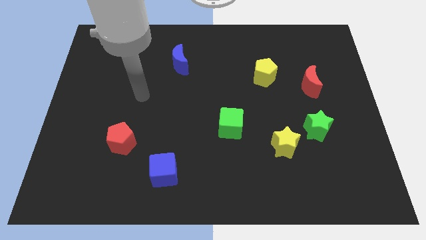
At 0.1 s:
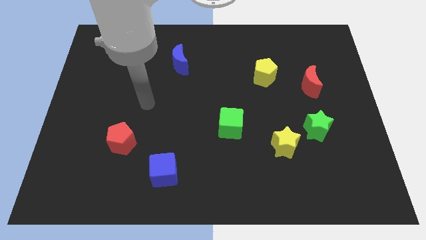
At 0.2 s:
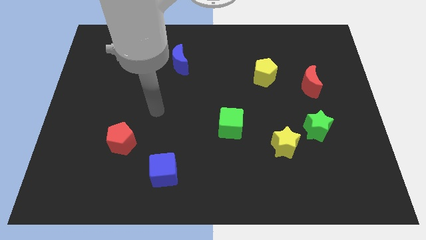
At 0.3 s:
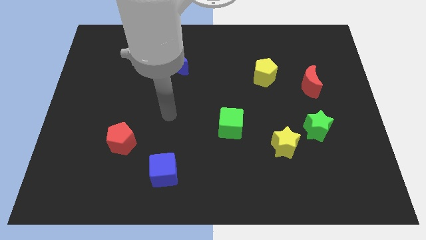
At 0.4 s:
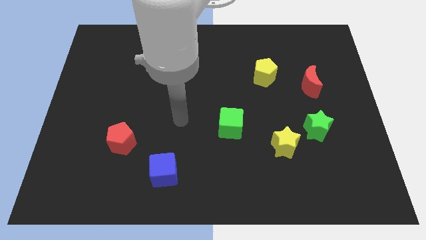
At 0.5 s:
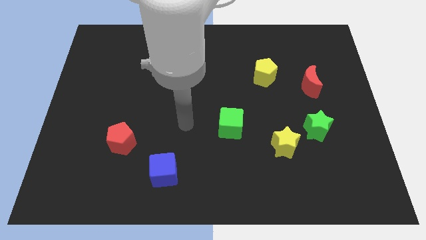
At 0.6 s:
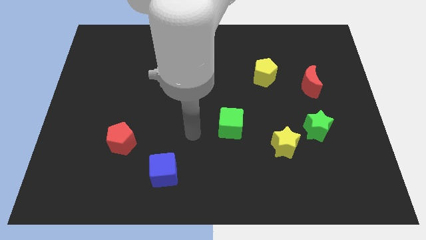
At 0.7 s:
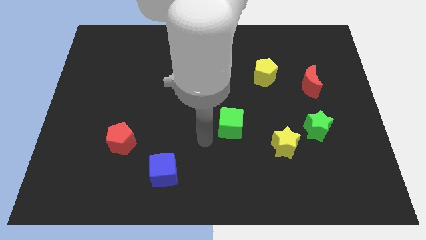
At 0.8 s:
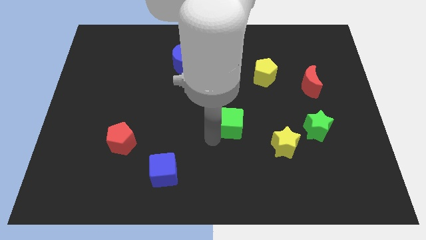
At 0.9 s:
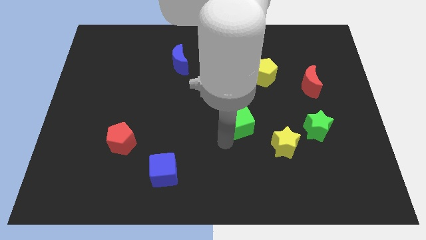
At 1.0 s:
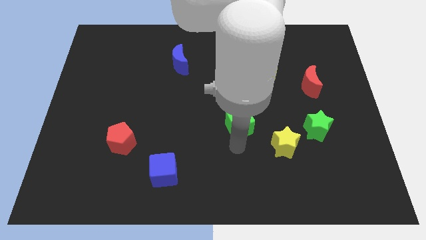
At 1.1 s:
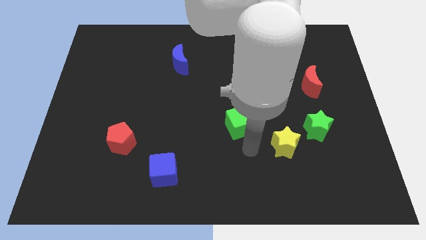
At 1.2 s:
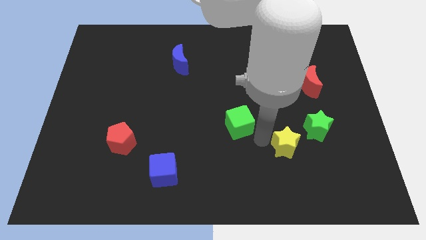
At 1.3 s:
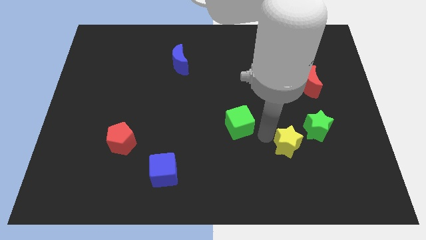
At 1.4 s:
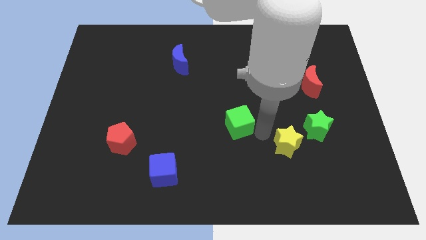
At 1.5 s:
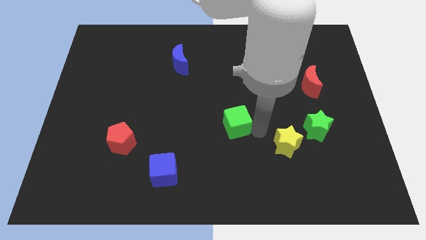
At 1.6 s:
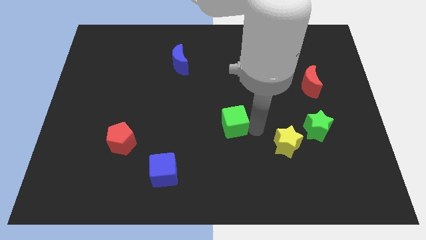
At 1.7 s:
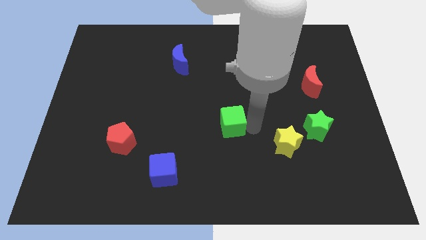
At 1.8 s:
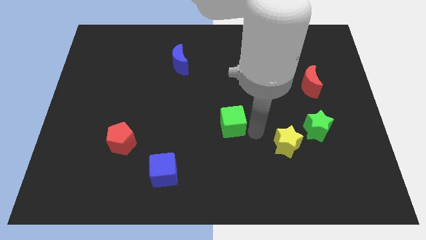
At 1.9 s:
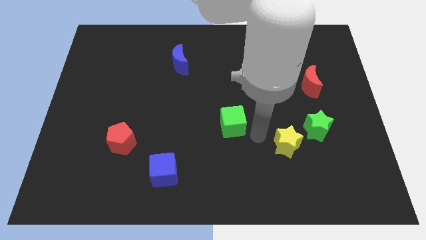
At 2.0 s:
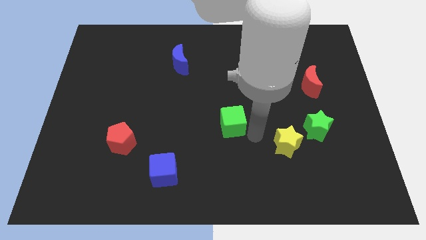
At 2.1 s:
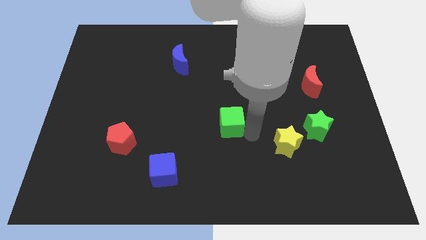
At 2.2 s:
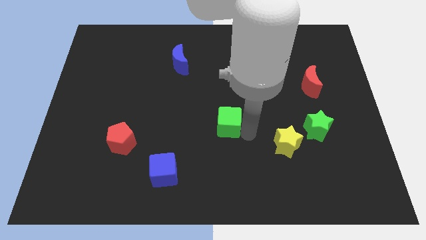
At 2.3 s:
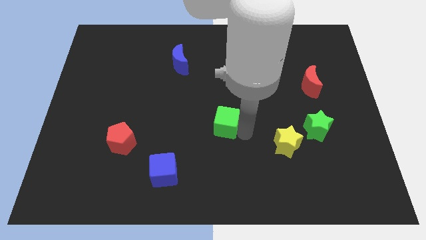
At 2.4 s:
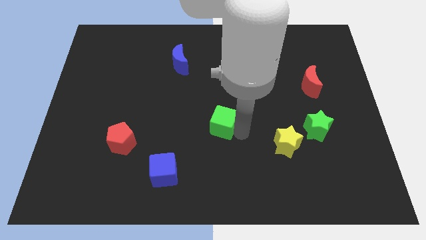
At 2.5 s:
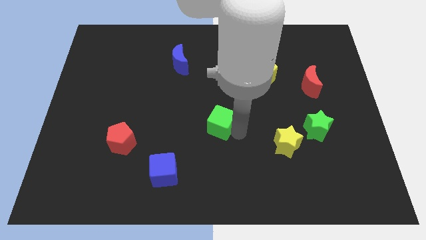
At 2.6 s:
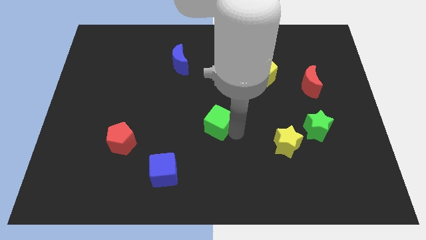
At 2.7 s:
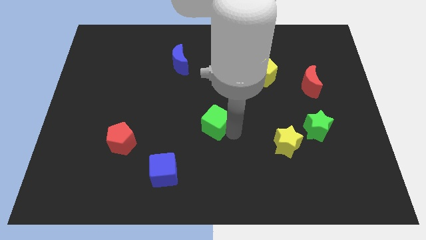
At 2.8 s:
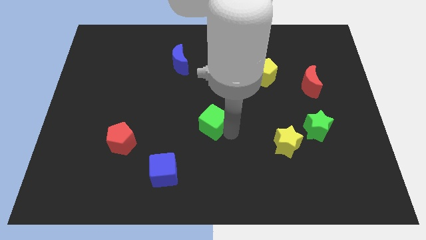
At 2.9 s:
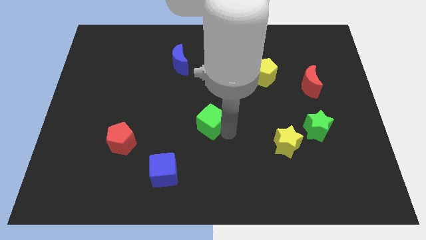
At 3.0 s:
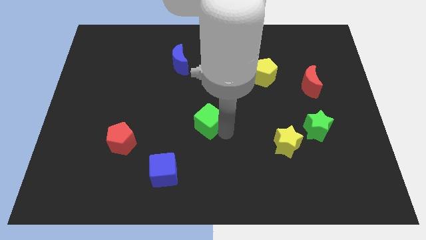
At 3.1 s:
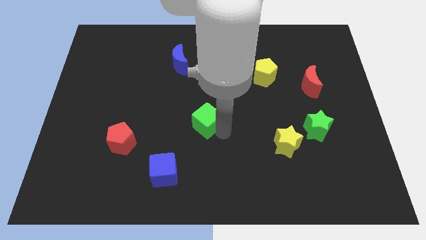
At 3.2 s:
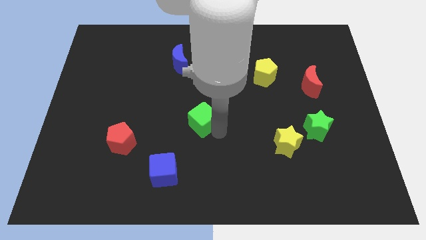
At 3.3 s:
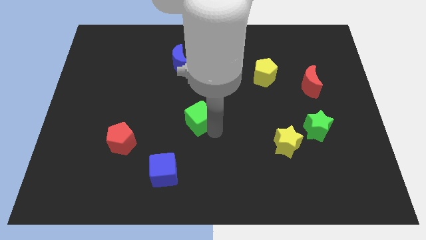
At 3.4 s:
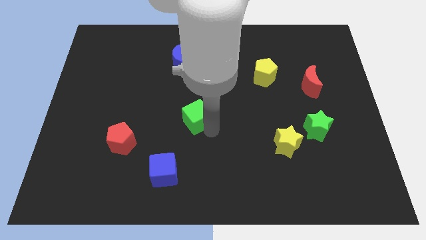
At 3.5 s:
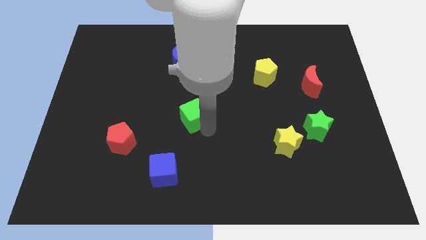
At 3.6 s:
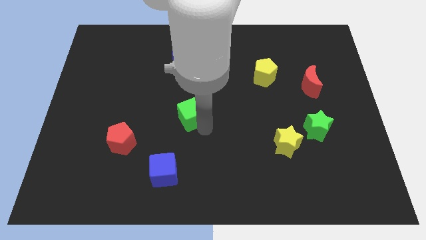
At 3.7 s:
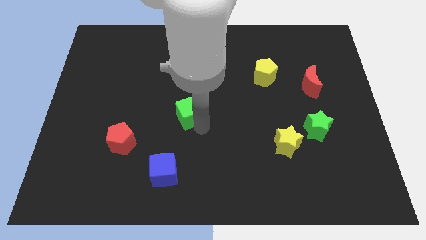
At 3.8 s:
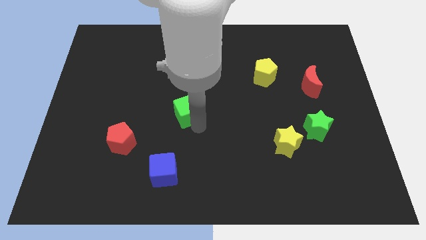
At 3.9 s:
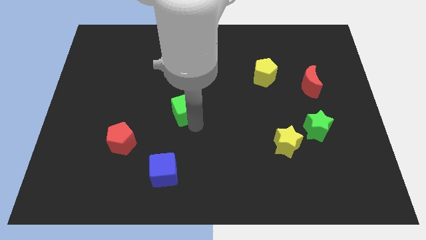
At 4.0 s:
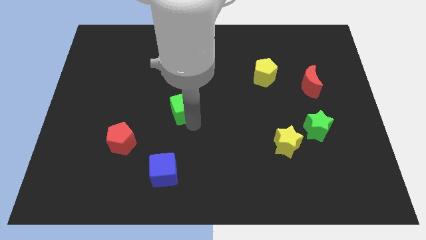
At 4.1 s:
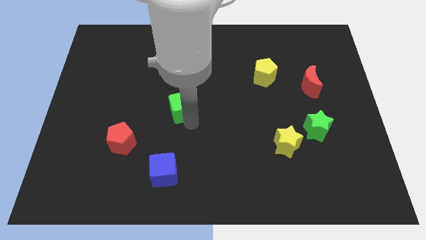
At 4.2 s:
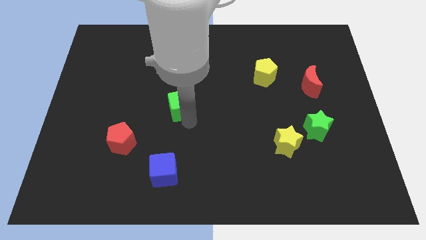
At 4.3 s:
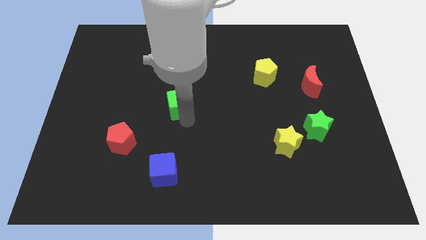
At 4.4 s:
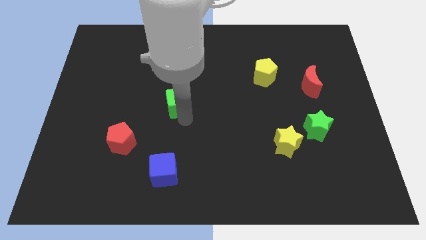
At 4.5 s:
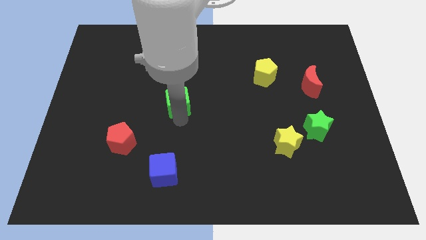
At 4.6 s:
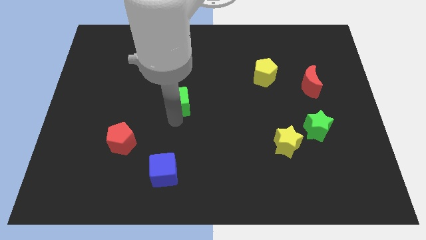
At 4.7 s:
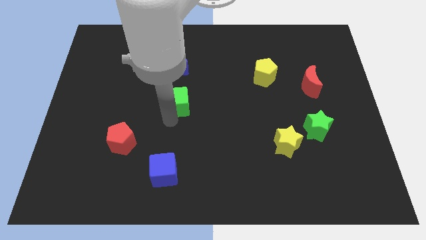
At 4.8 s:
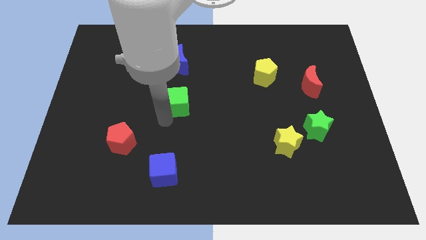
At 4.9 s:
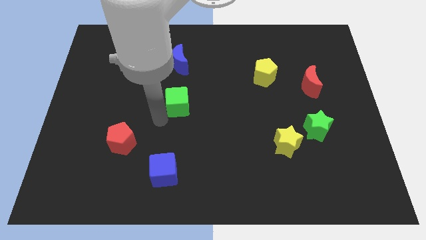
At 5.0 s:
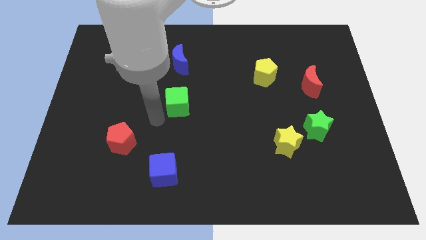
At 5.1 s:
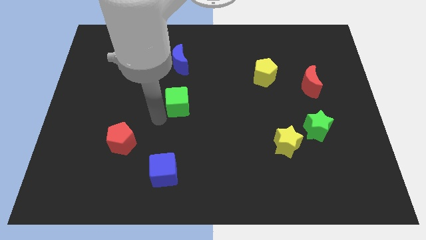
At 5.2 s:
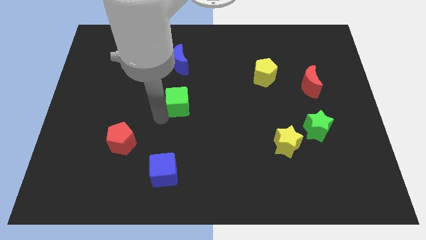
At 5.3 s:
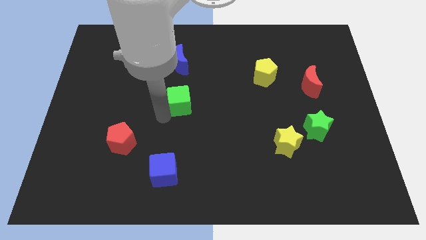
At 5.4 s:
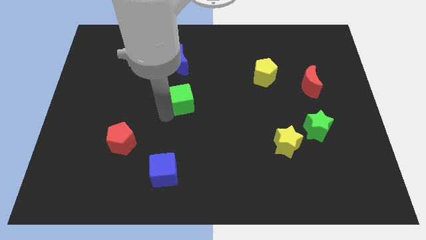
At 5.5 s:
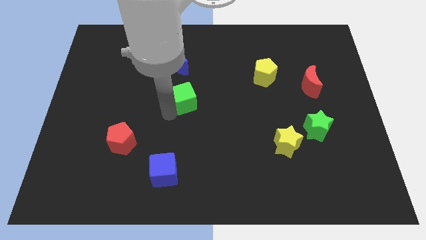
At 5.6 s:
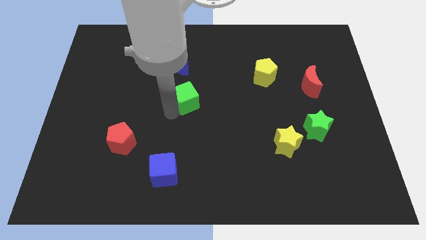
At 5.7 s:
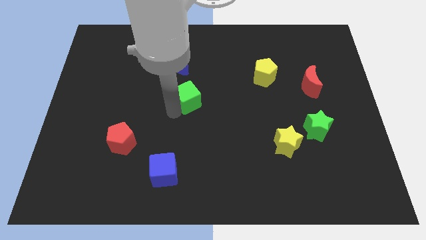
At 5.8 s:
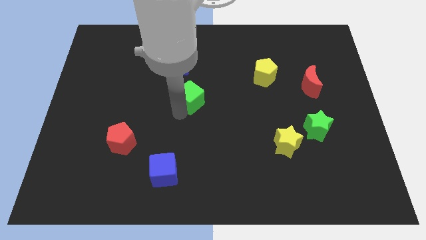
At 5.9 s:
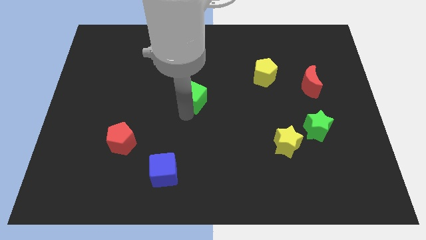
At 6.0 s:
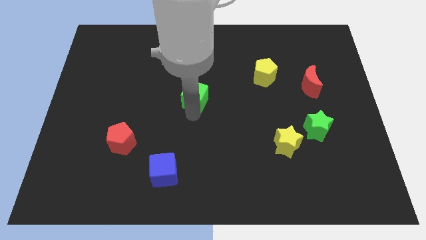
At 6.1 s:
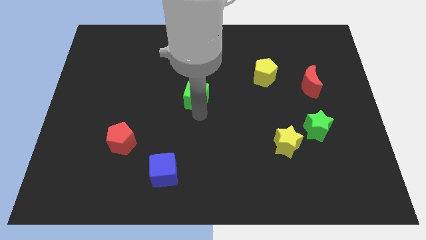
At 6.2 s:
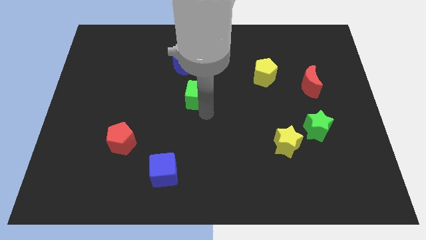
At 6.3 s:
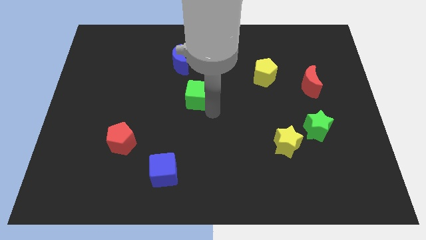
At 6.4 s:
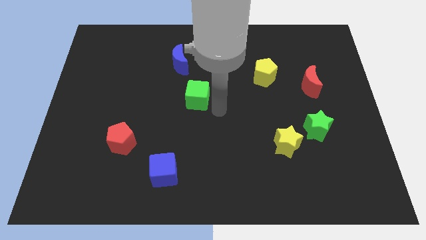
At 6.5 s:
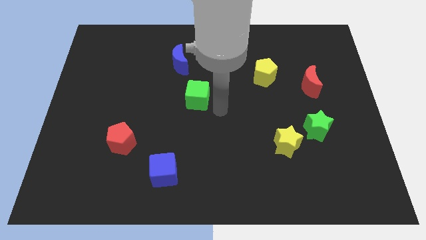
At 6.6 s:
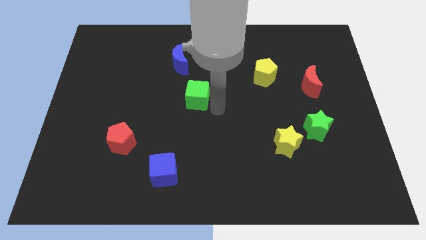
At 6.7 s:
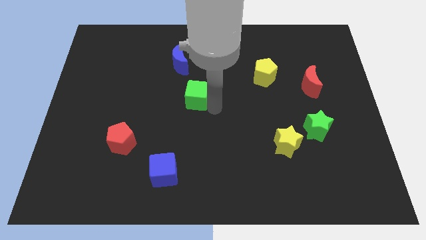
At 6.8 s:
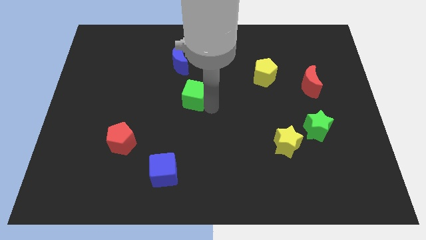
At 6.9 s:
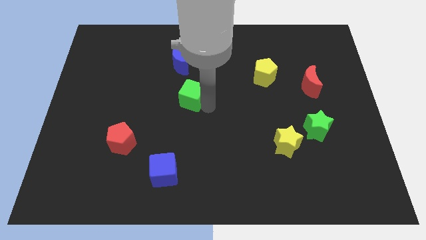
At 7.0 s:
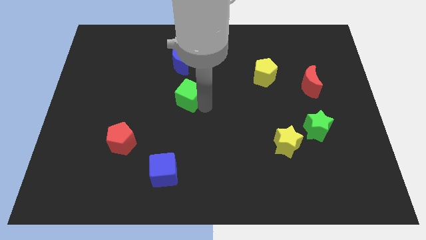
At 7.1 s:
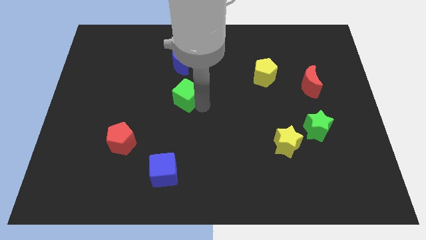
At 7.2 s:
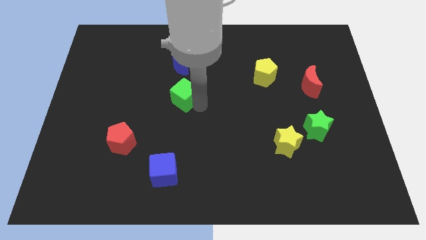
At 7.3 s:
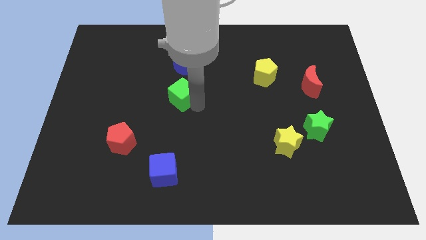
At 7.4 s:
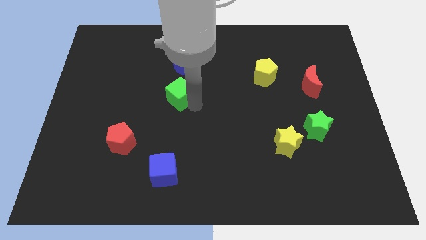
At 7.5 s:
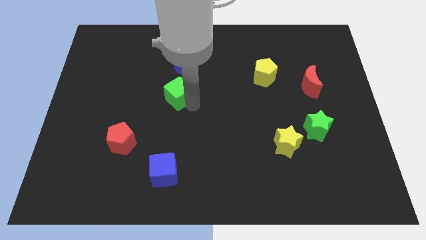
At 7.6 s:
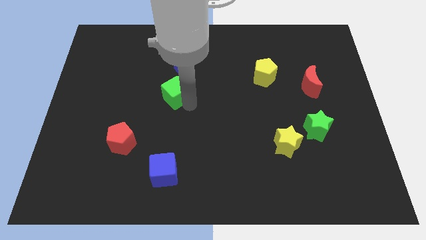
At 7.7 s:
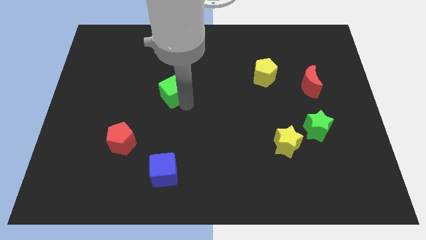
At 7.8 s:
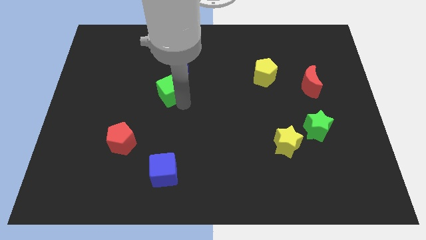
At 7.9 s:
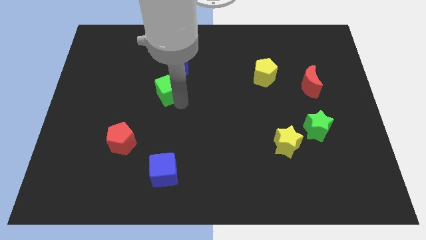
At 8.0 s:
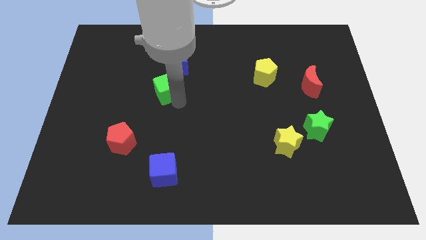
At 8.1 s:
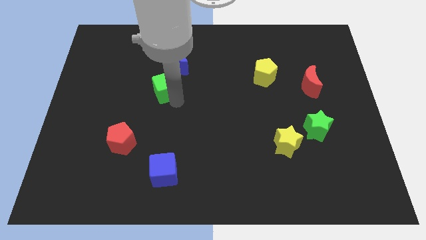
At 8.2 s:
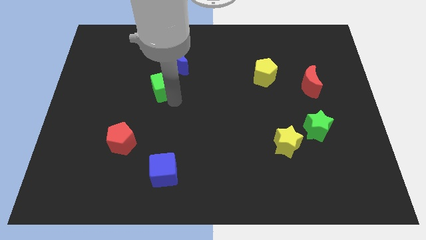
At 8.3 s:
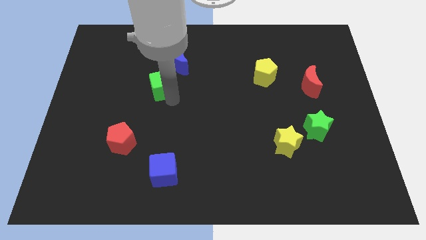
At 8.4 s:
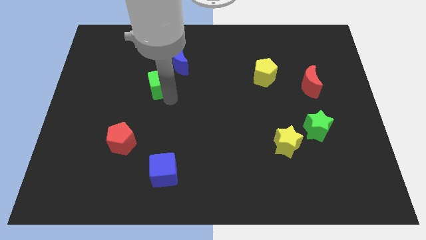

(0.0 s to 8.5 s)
push the green cube upwards and to the left

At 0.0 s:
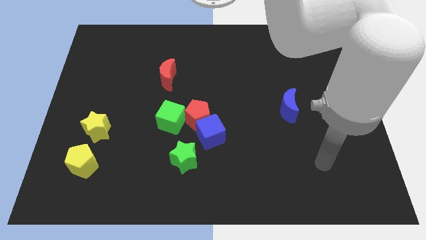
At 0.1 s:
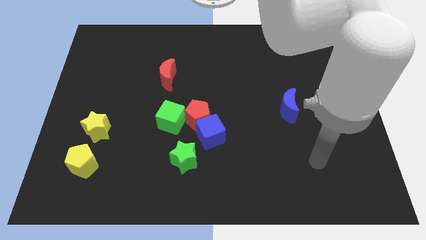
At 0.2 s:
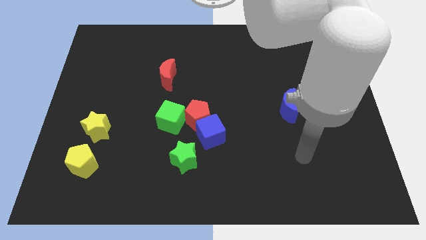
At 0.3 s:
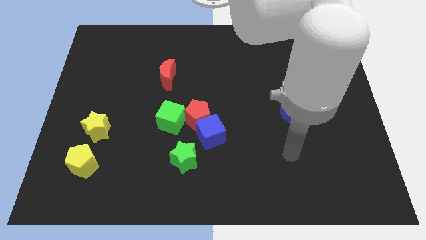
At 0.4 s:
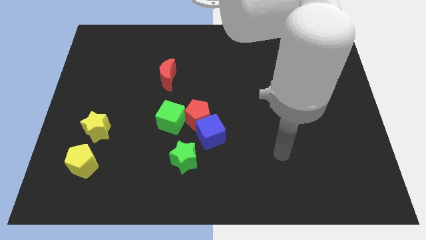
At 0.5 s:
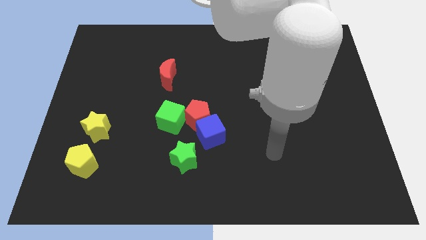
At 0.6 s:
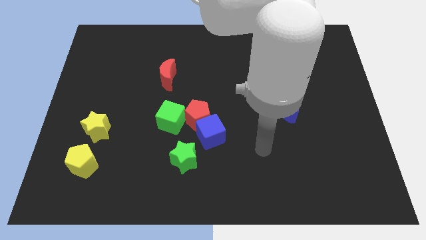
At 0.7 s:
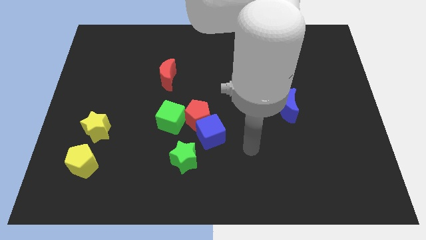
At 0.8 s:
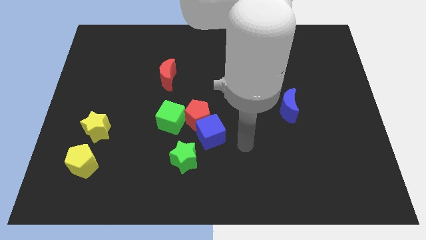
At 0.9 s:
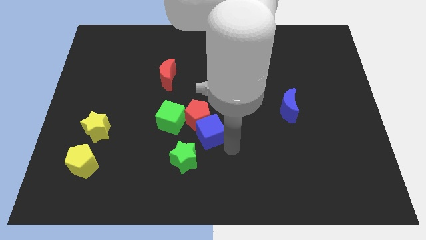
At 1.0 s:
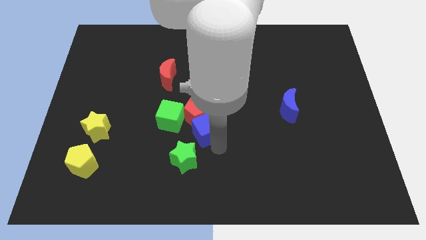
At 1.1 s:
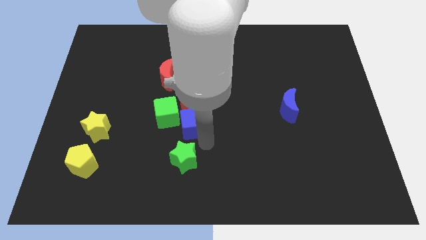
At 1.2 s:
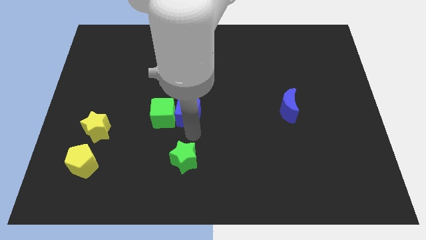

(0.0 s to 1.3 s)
slightly move the red pentagon up
